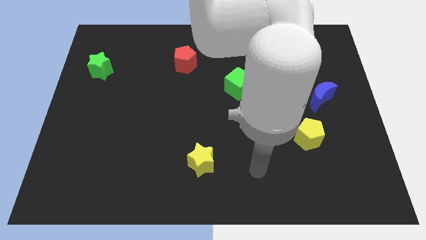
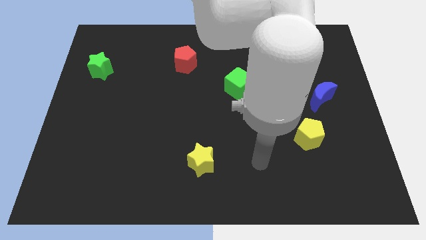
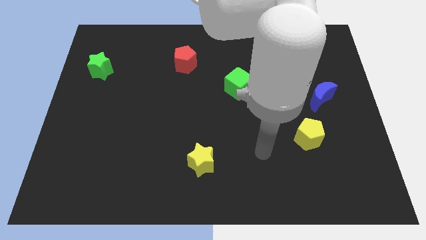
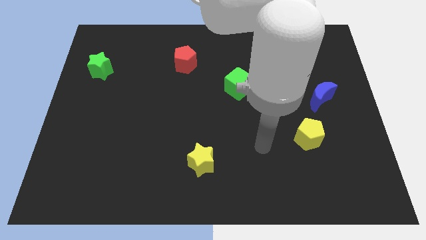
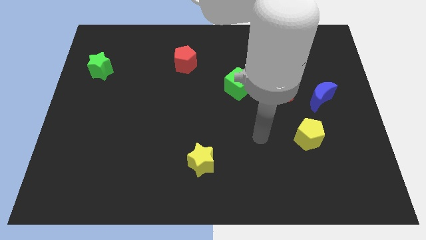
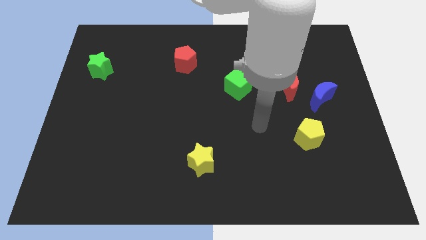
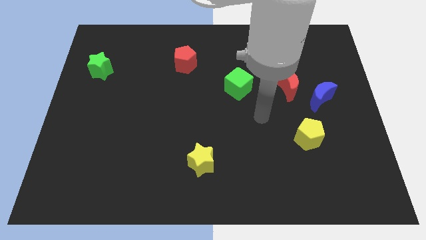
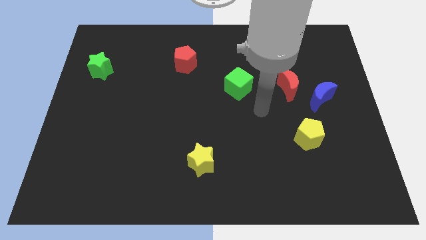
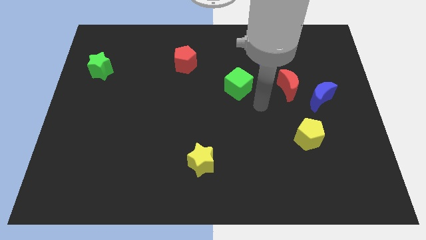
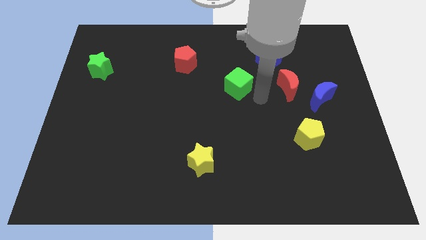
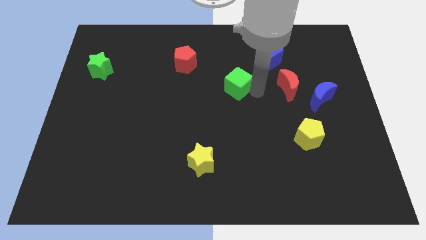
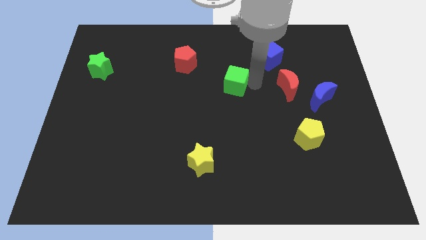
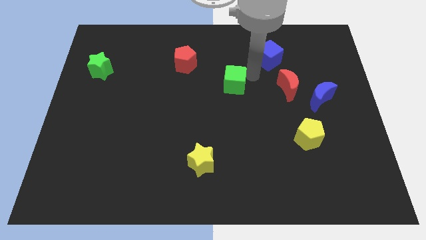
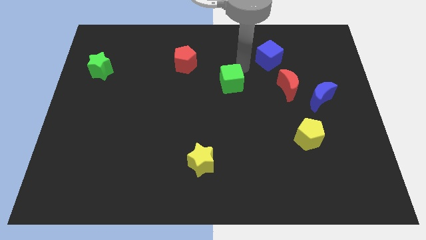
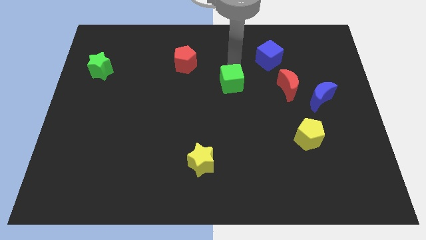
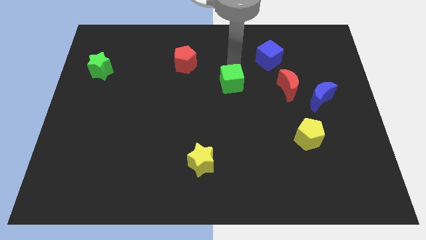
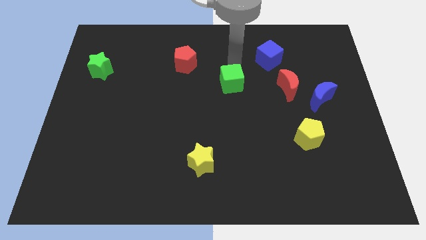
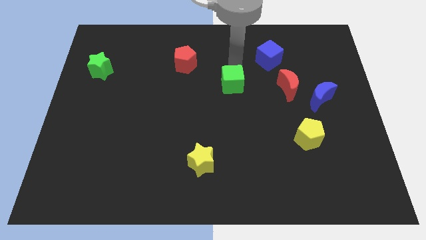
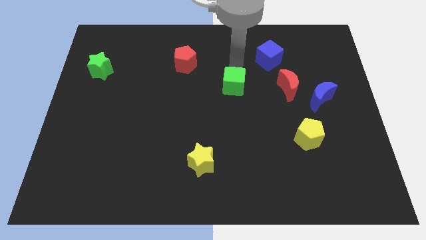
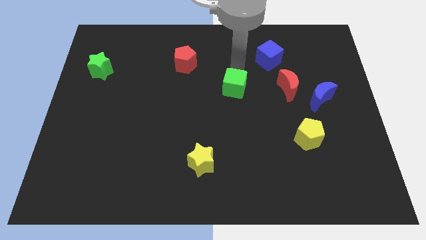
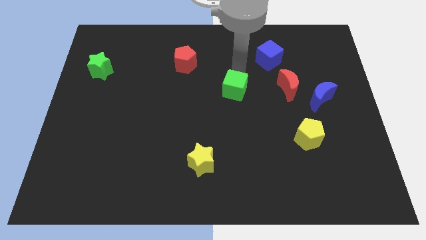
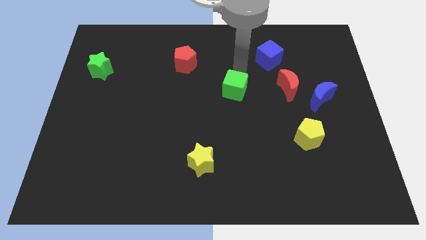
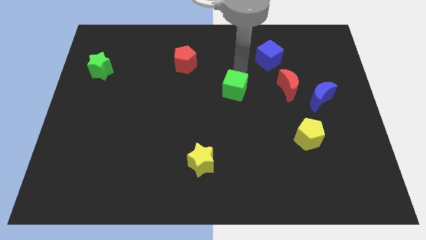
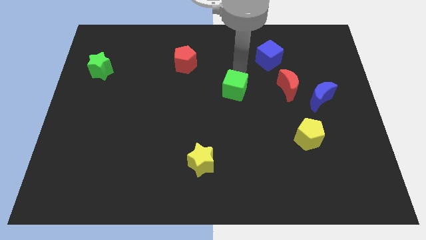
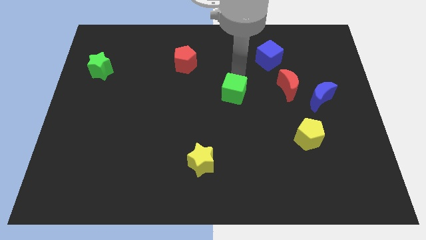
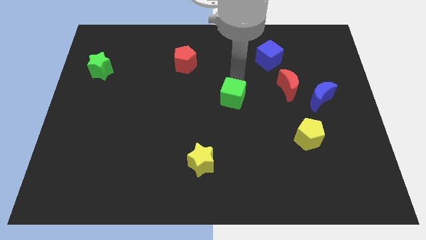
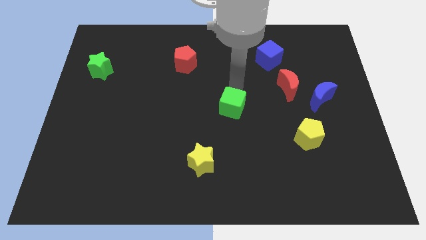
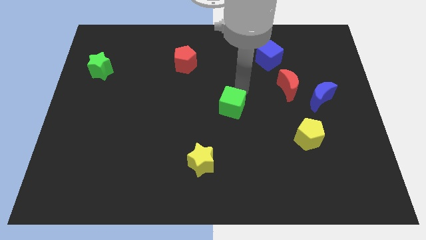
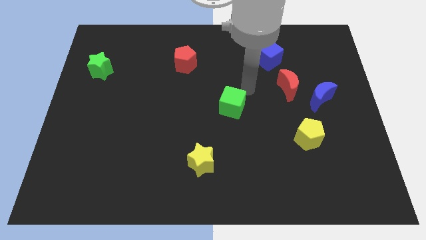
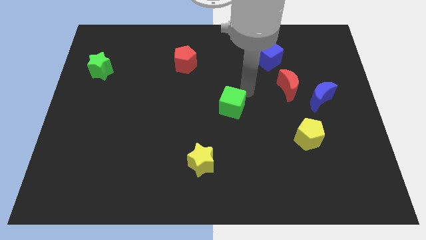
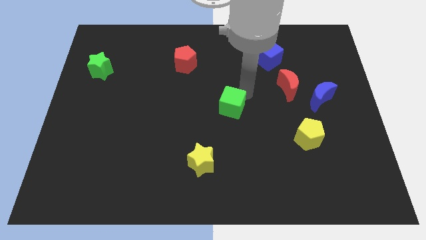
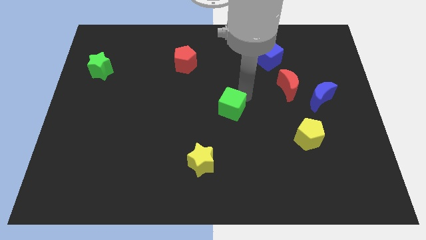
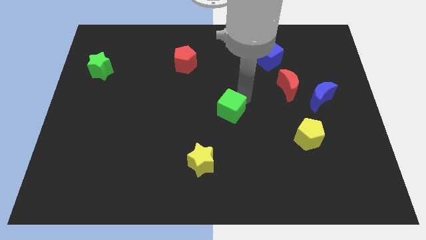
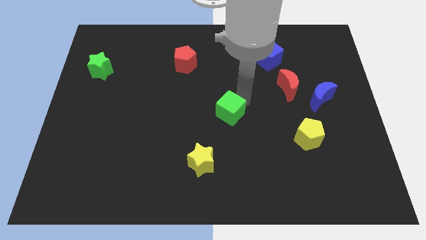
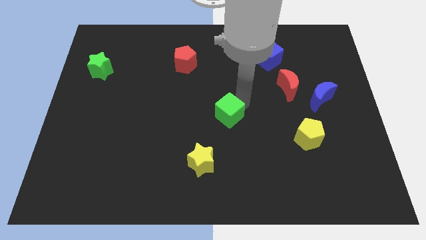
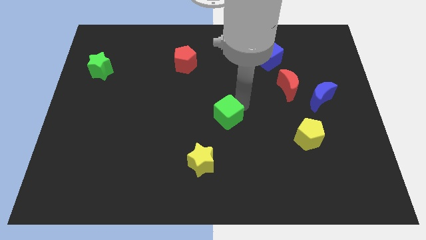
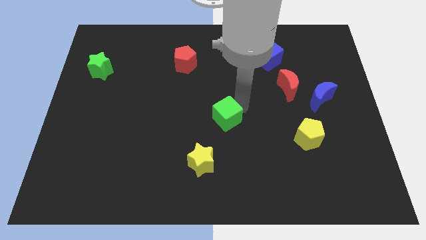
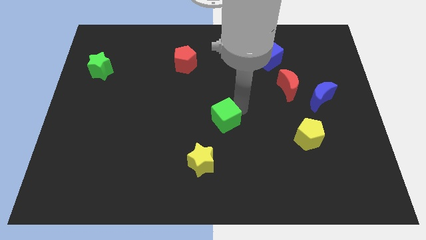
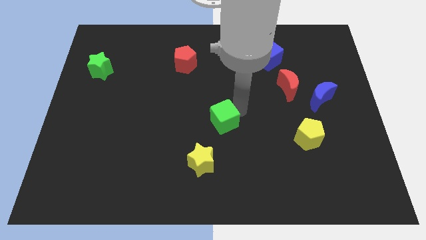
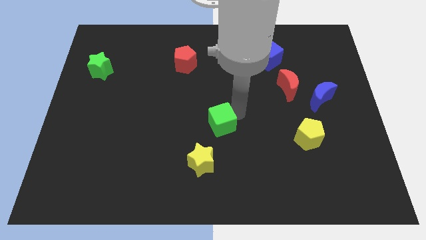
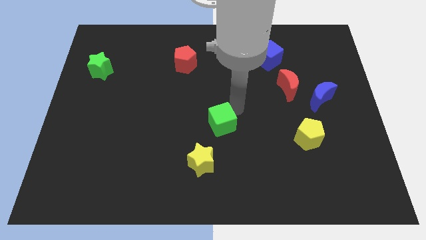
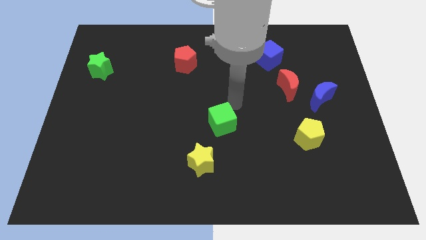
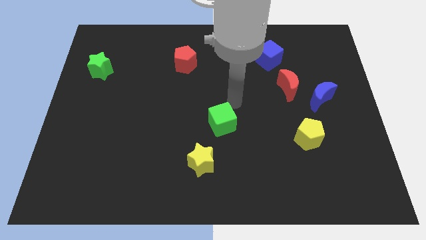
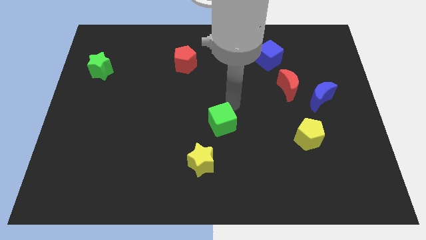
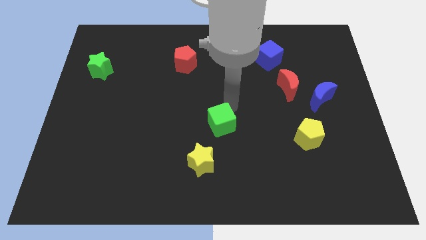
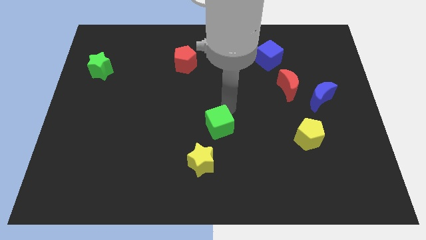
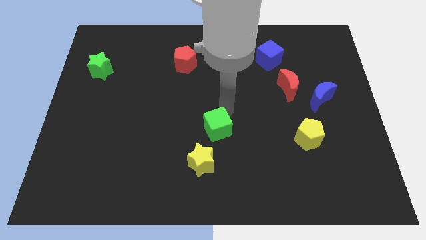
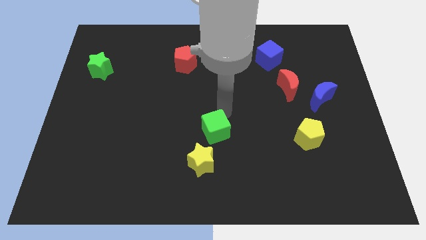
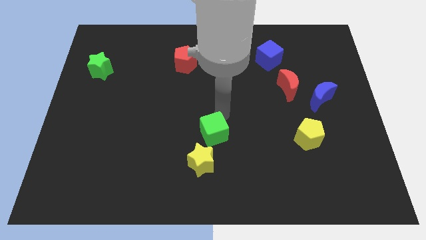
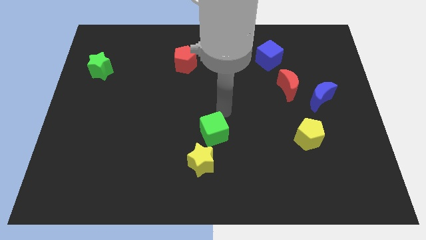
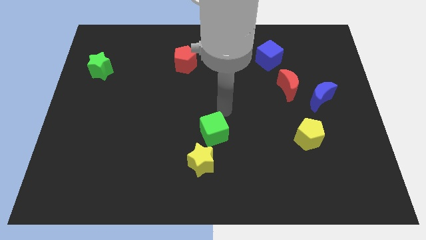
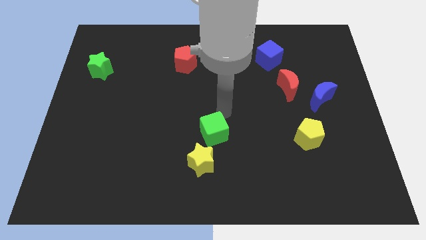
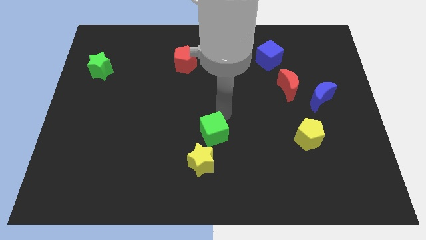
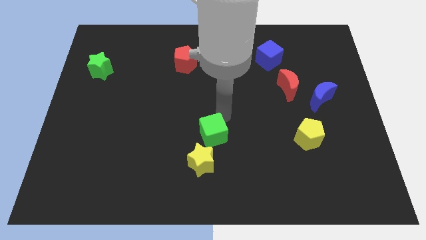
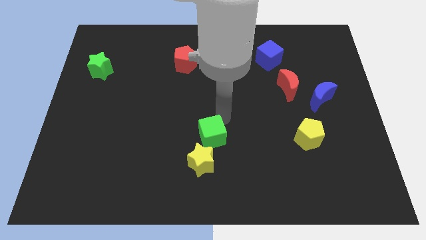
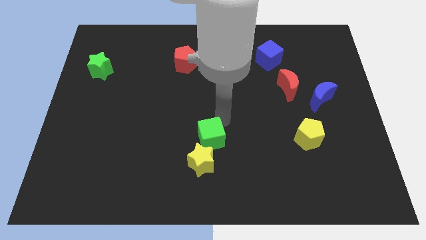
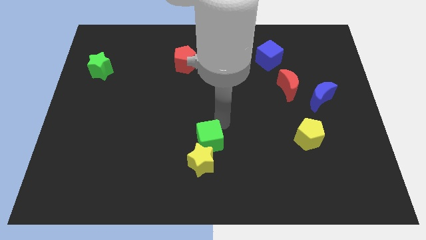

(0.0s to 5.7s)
move the green cube to the yellow star

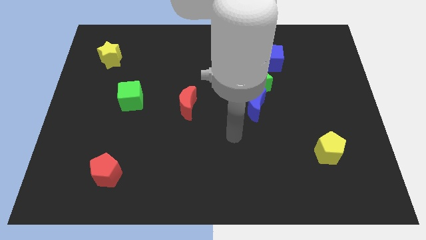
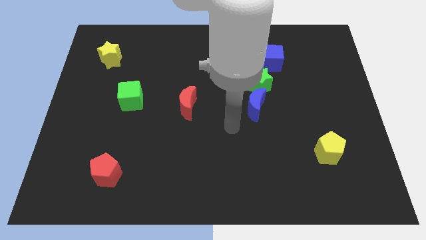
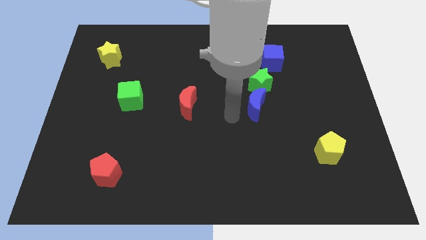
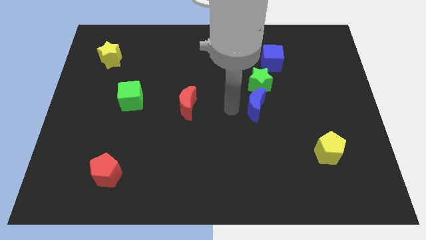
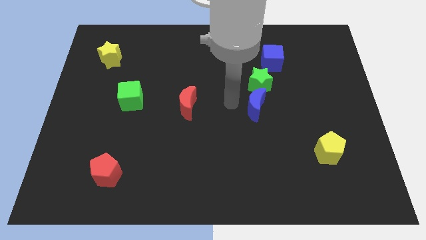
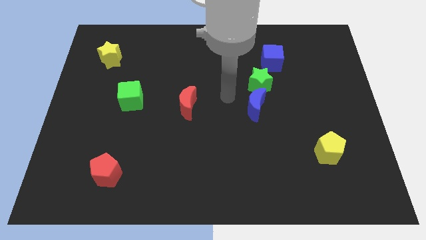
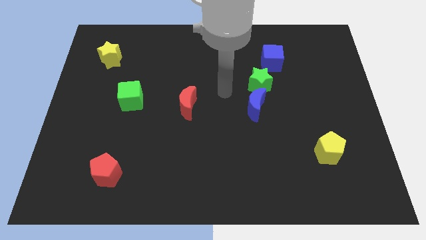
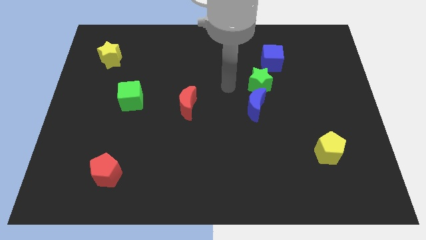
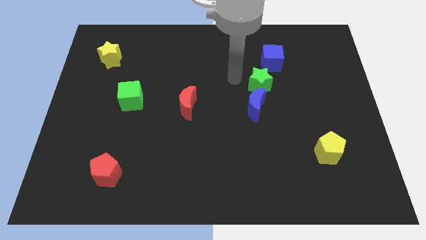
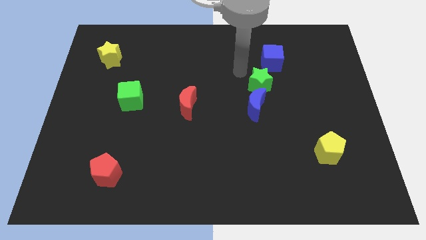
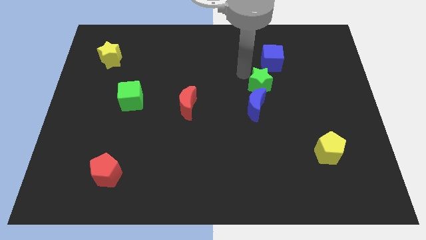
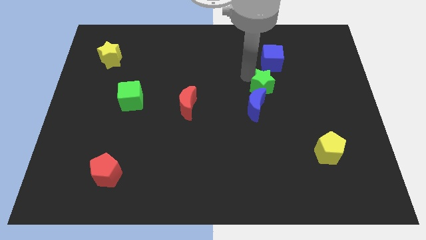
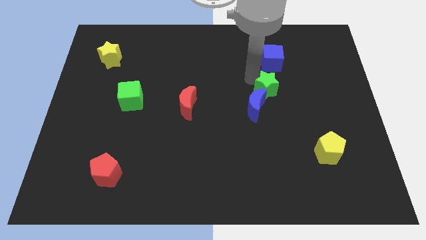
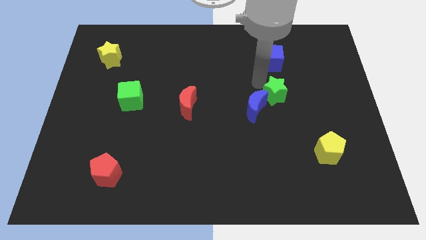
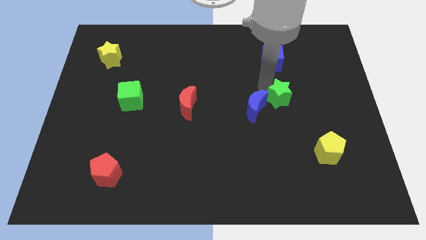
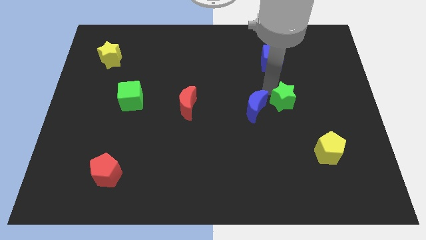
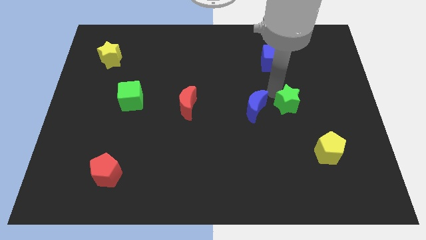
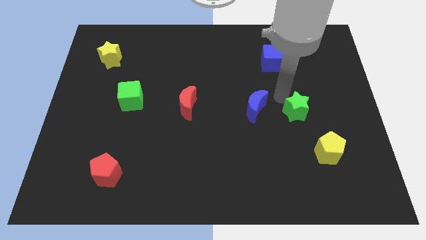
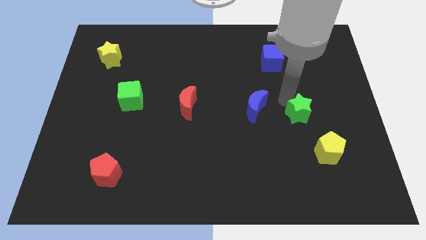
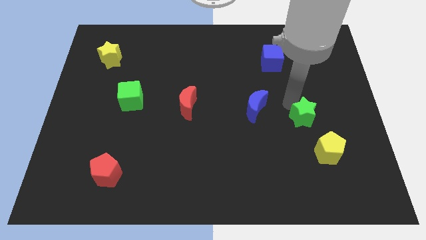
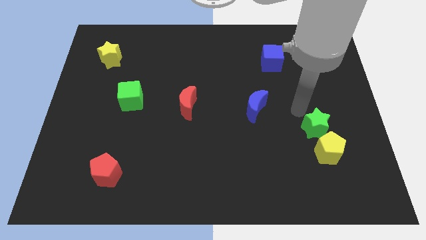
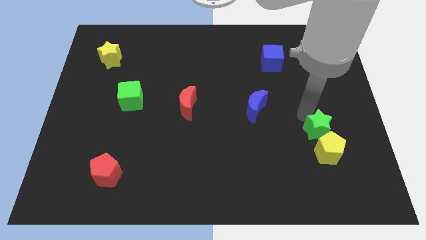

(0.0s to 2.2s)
push the green star to the yellow pentagon
